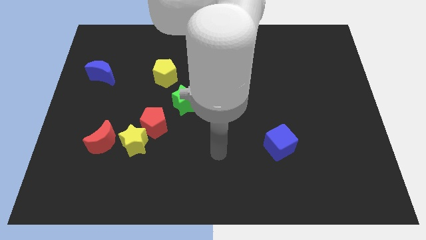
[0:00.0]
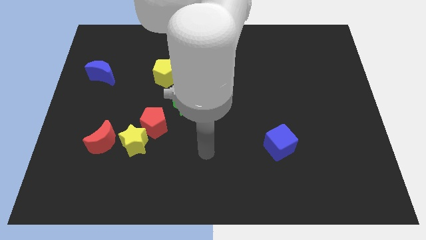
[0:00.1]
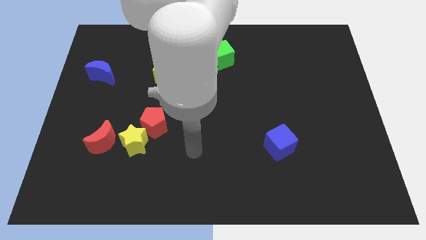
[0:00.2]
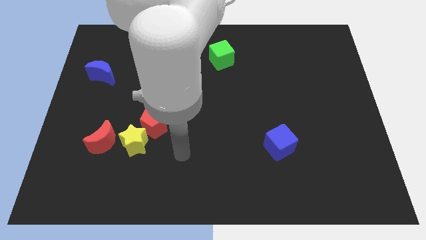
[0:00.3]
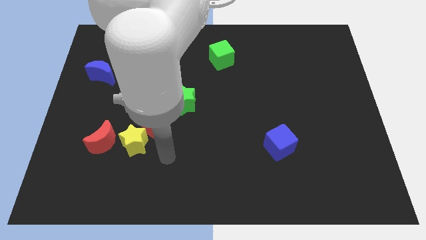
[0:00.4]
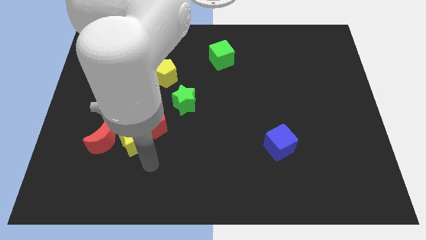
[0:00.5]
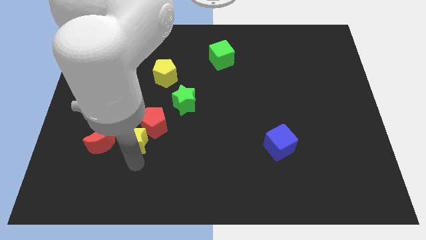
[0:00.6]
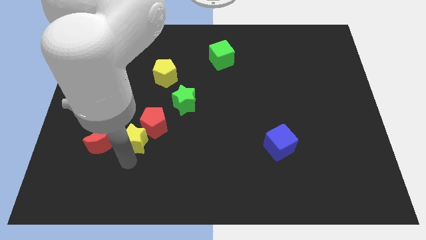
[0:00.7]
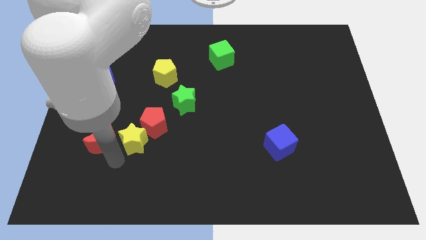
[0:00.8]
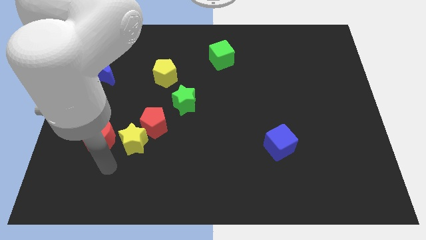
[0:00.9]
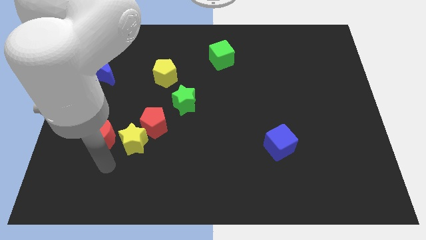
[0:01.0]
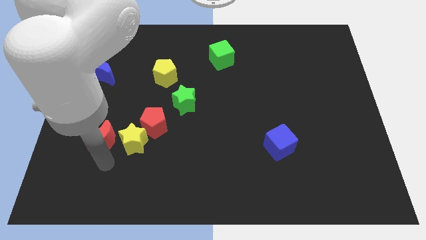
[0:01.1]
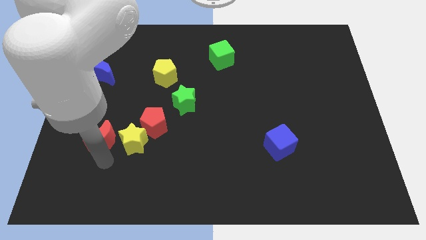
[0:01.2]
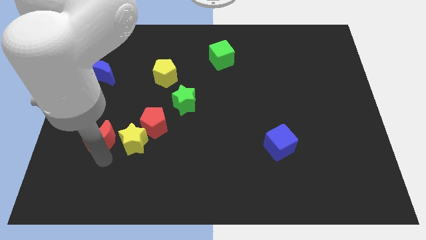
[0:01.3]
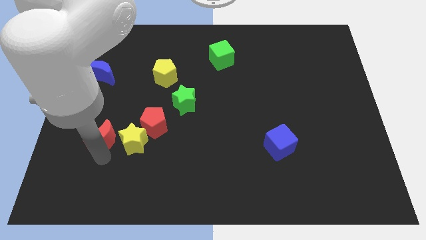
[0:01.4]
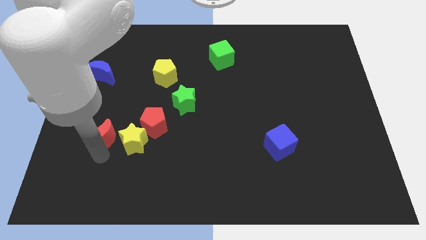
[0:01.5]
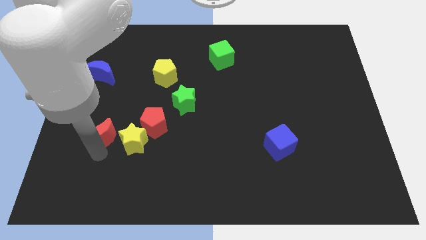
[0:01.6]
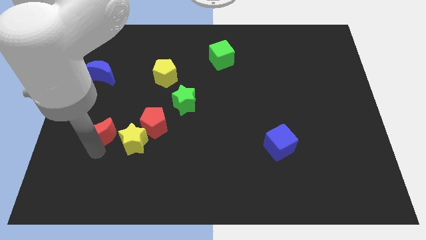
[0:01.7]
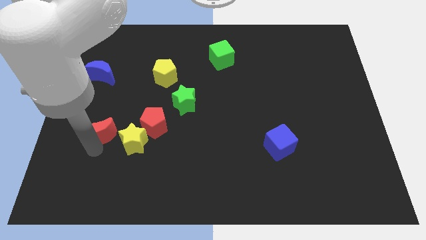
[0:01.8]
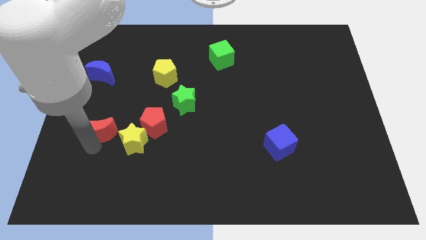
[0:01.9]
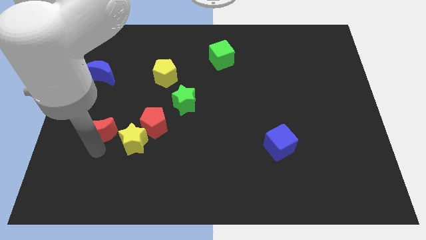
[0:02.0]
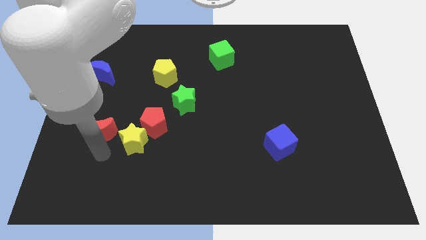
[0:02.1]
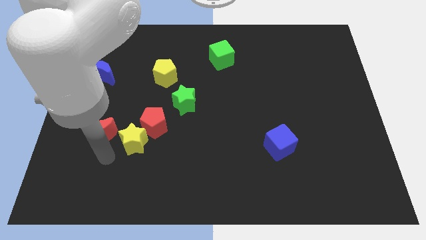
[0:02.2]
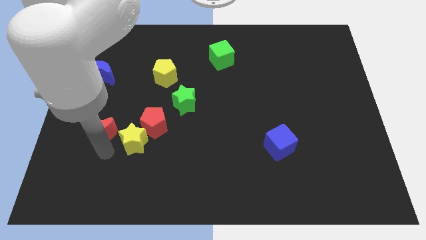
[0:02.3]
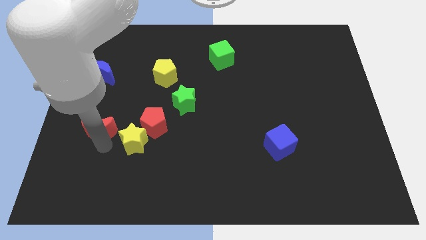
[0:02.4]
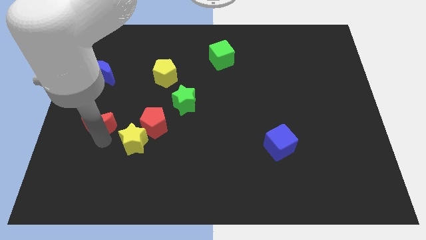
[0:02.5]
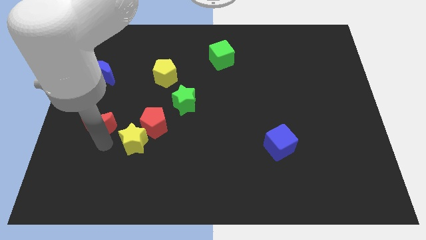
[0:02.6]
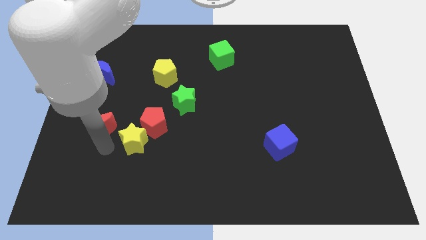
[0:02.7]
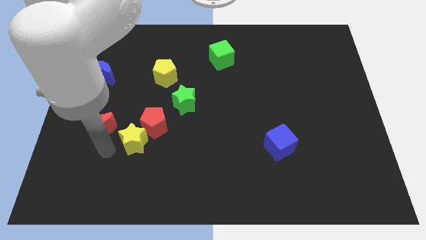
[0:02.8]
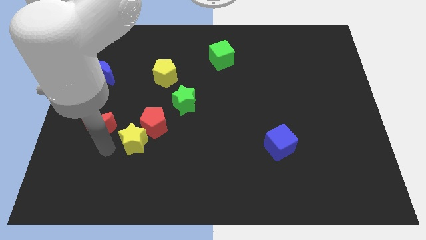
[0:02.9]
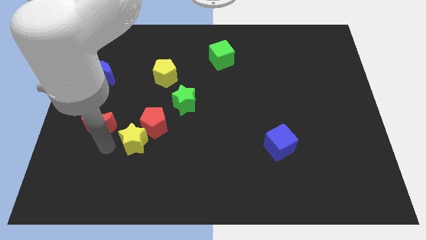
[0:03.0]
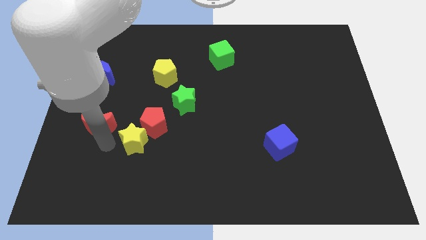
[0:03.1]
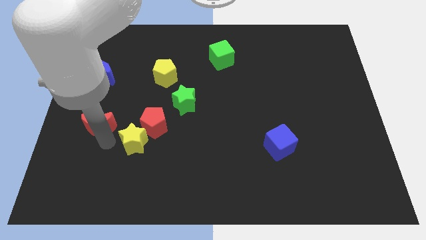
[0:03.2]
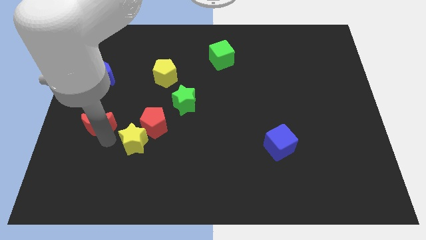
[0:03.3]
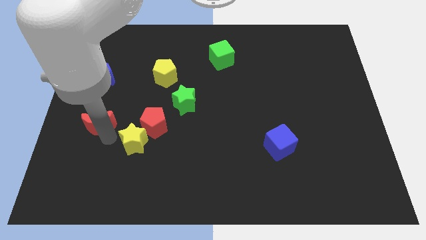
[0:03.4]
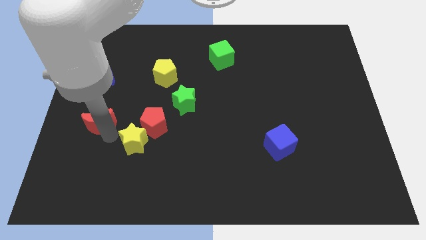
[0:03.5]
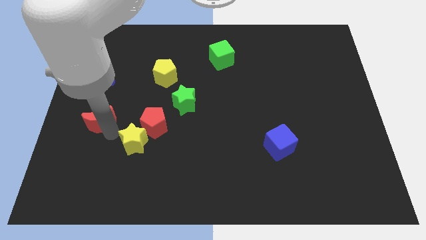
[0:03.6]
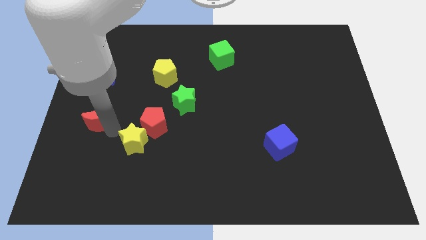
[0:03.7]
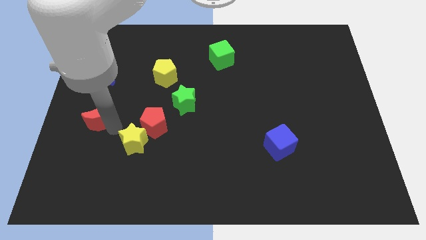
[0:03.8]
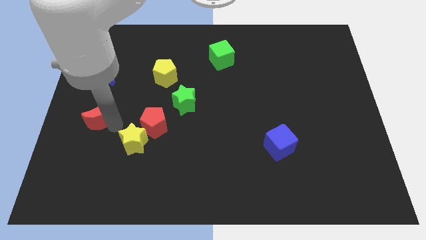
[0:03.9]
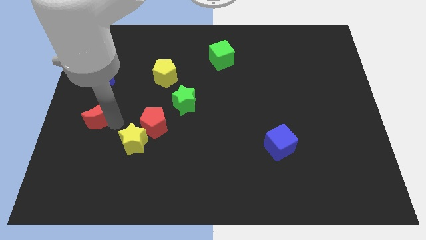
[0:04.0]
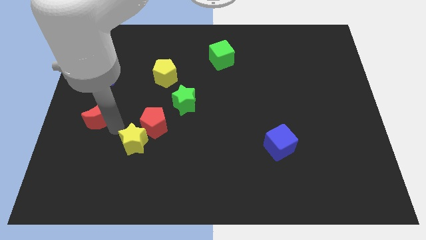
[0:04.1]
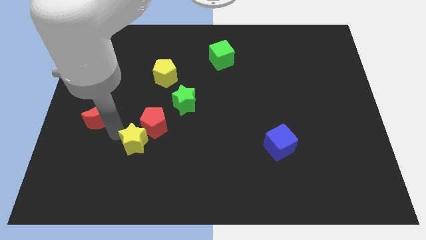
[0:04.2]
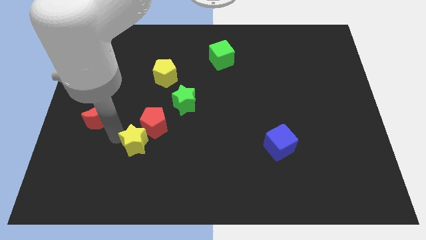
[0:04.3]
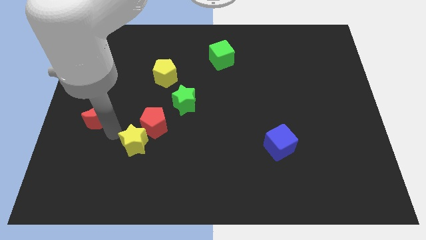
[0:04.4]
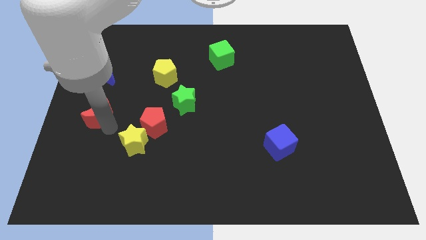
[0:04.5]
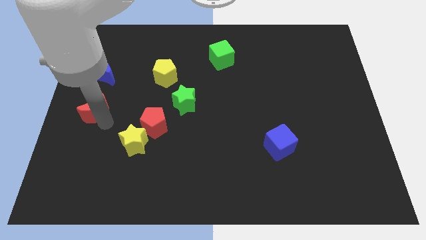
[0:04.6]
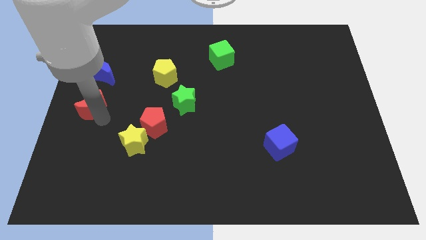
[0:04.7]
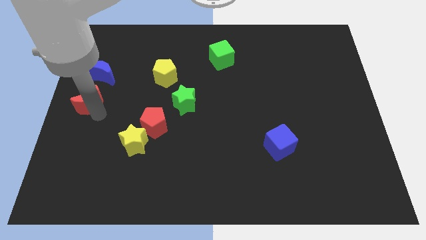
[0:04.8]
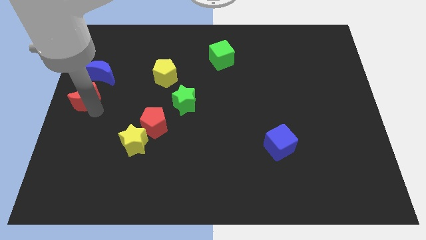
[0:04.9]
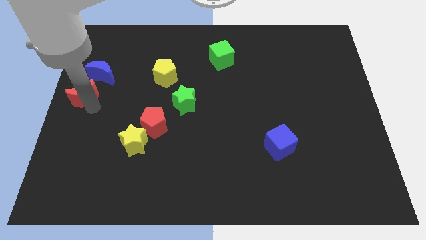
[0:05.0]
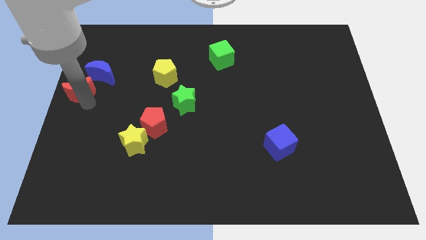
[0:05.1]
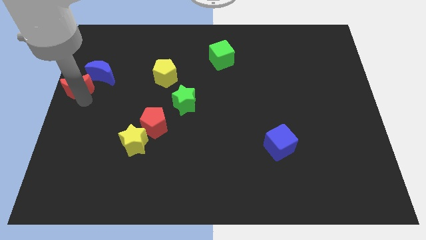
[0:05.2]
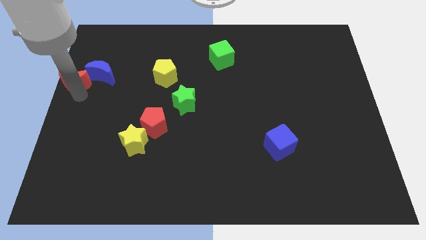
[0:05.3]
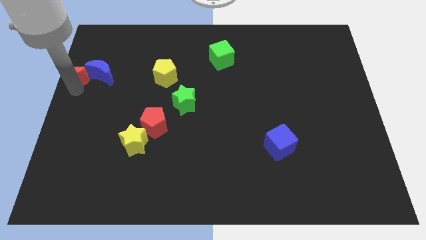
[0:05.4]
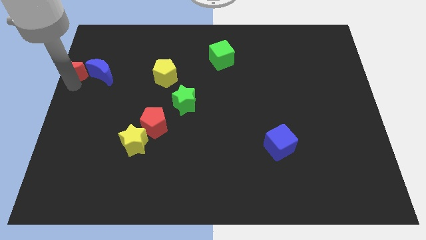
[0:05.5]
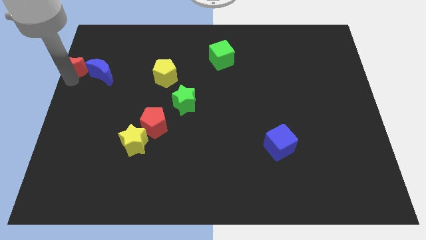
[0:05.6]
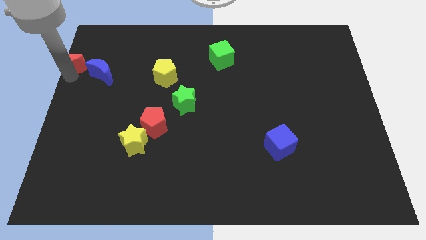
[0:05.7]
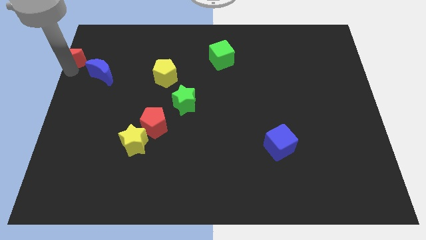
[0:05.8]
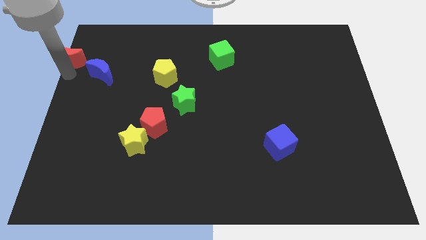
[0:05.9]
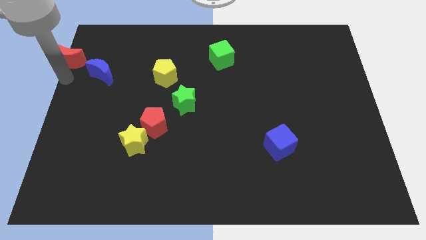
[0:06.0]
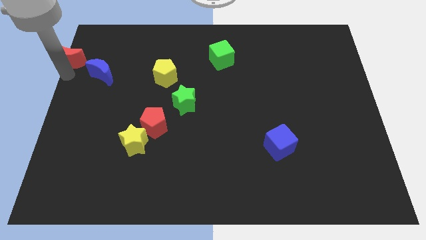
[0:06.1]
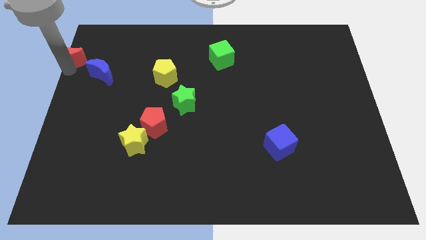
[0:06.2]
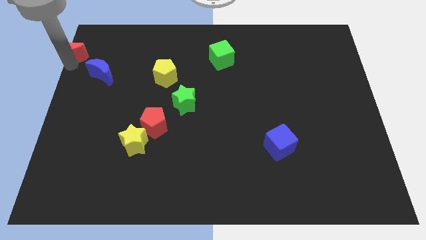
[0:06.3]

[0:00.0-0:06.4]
slide the red moon to the top left
